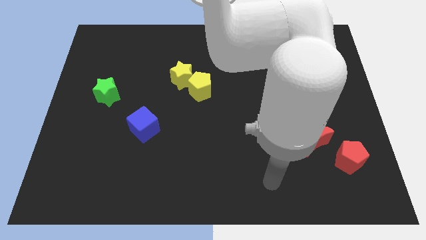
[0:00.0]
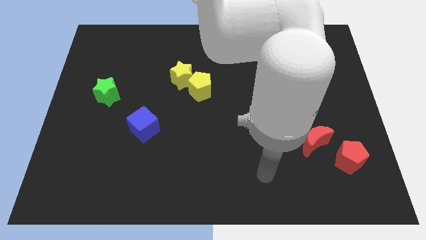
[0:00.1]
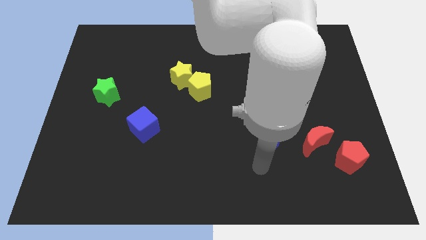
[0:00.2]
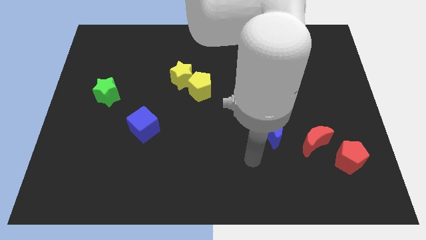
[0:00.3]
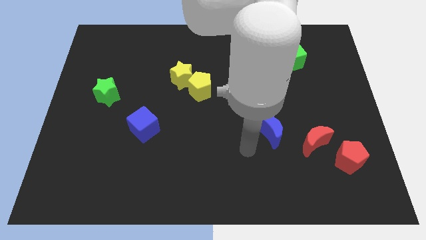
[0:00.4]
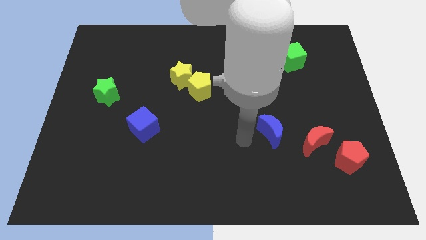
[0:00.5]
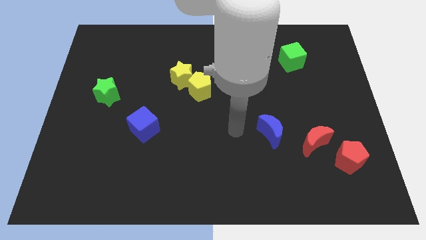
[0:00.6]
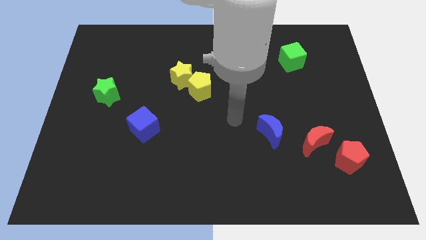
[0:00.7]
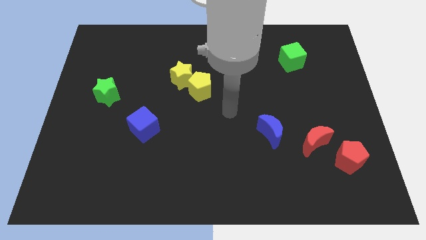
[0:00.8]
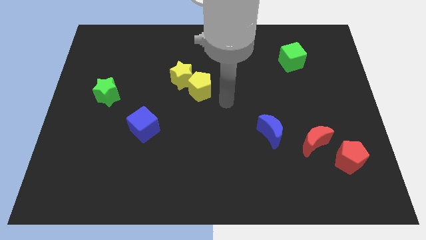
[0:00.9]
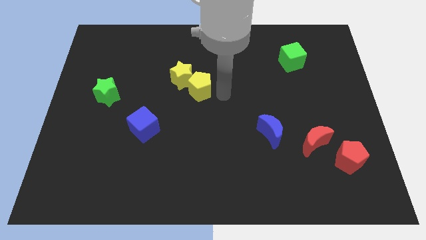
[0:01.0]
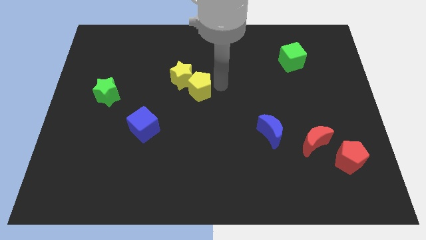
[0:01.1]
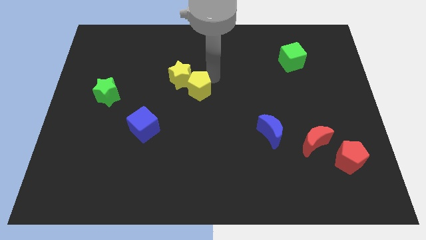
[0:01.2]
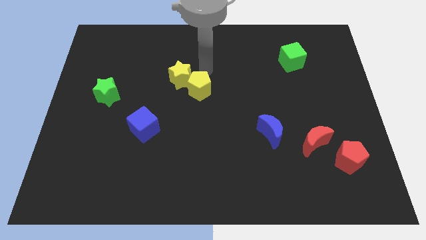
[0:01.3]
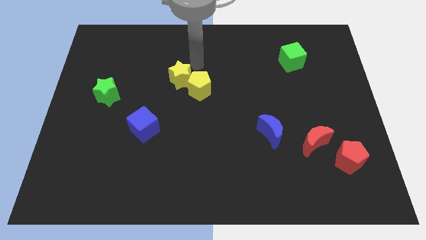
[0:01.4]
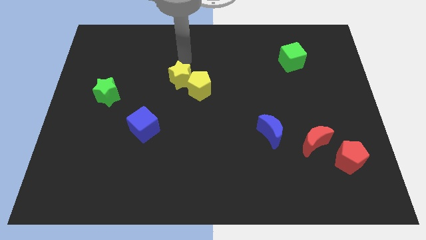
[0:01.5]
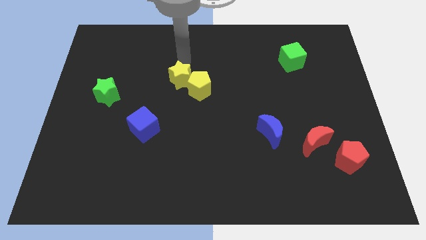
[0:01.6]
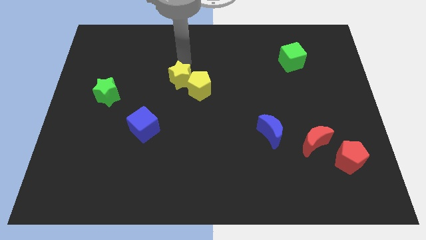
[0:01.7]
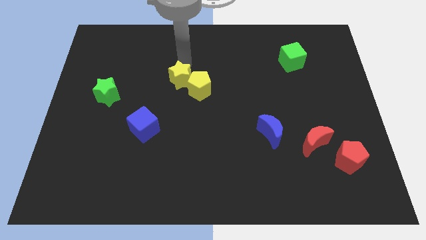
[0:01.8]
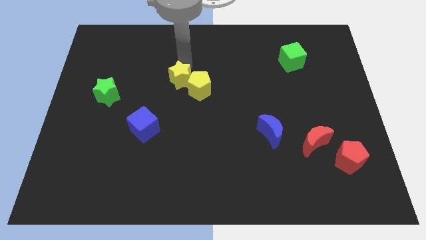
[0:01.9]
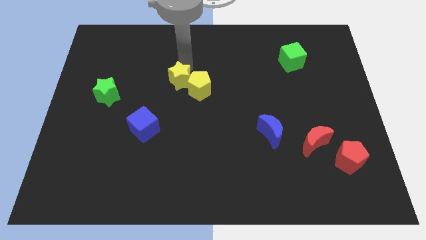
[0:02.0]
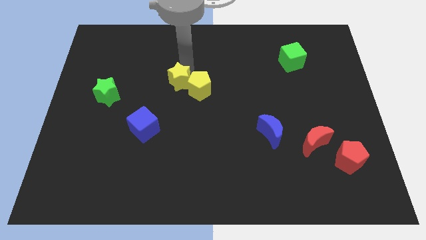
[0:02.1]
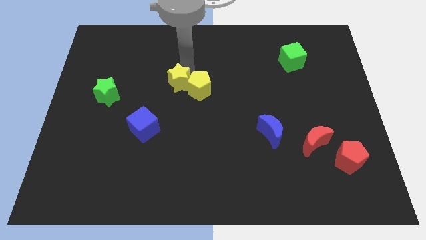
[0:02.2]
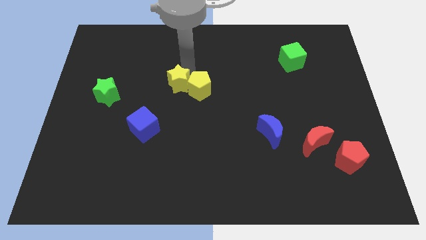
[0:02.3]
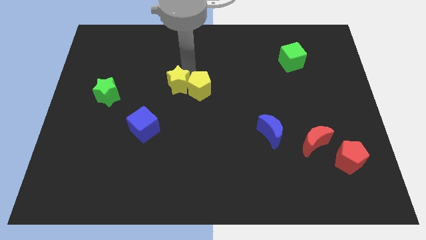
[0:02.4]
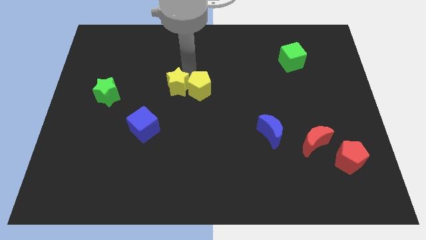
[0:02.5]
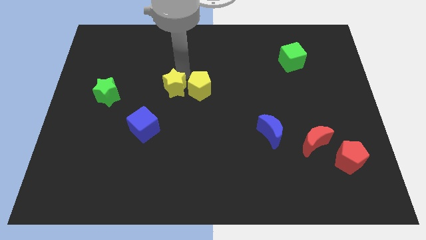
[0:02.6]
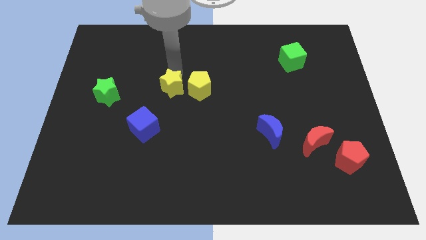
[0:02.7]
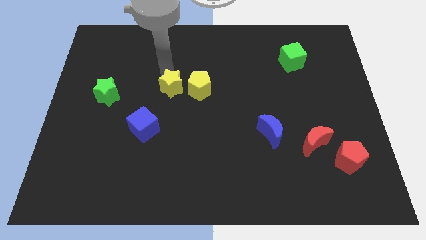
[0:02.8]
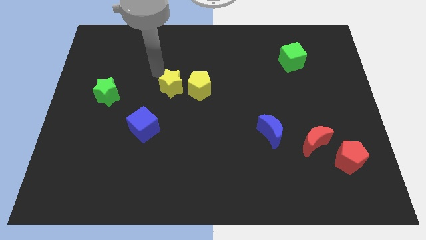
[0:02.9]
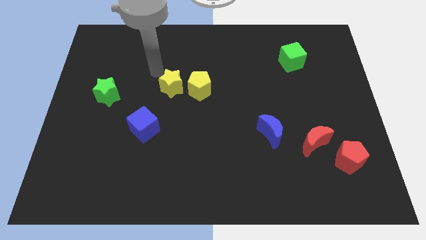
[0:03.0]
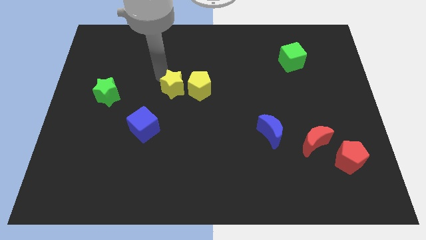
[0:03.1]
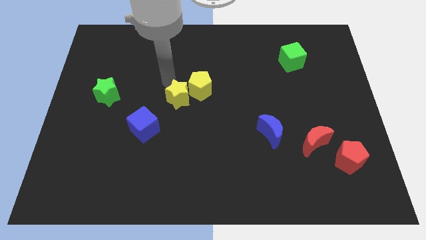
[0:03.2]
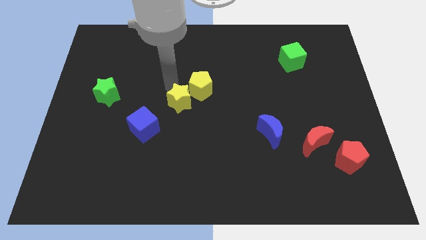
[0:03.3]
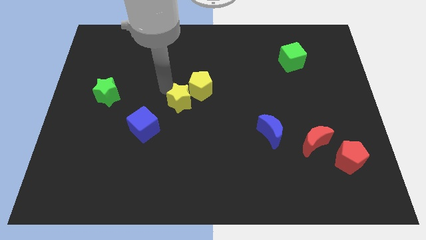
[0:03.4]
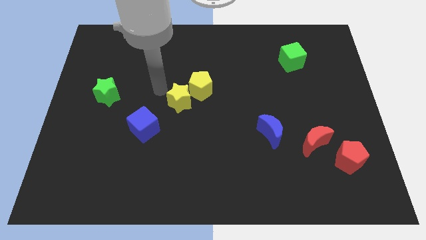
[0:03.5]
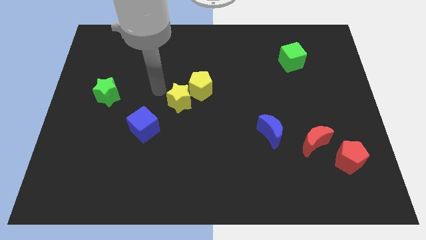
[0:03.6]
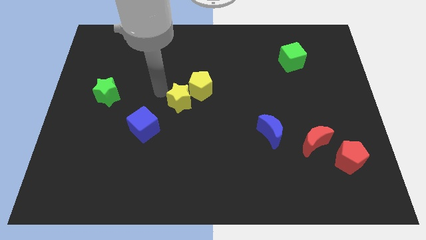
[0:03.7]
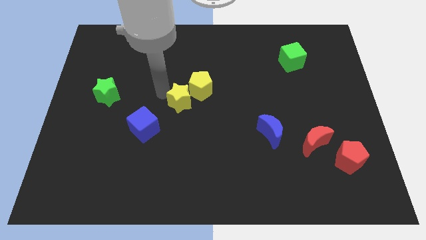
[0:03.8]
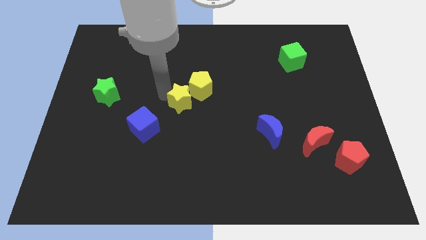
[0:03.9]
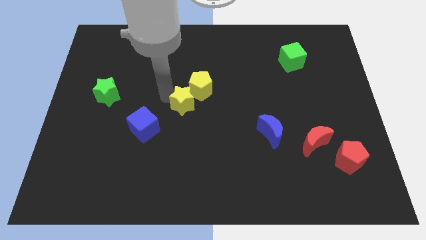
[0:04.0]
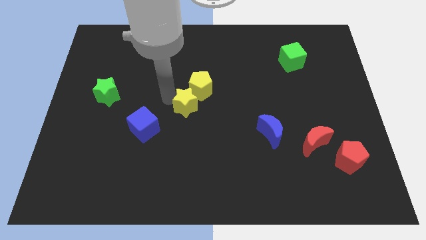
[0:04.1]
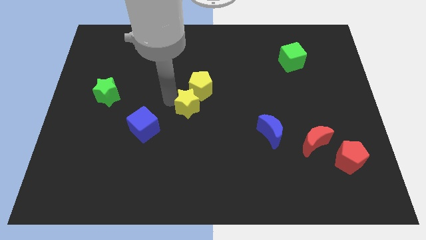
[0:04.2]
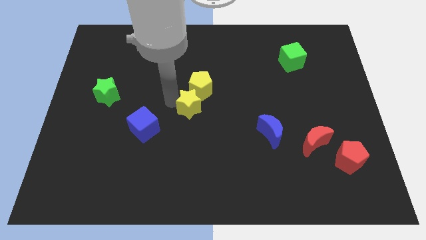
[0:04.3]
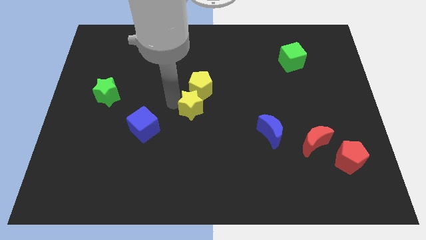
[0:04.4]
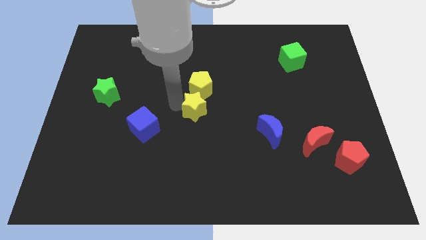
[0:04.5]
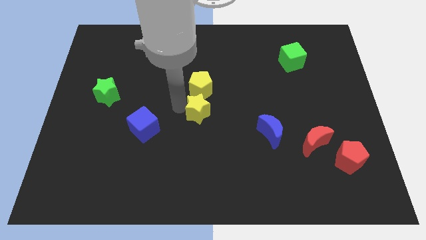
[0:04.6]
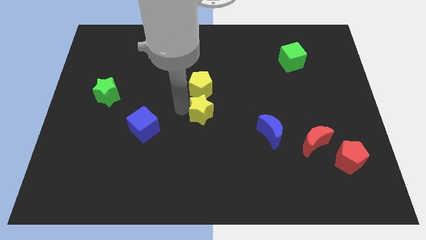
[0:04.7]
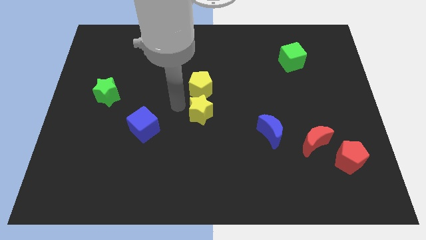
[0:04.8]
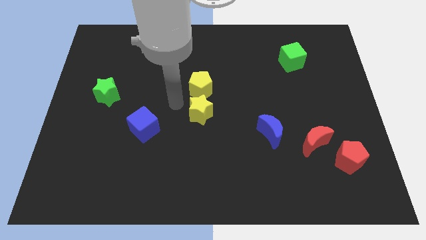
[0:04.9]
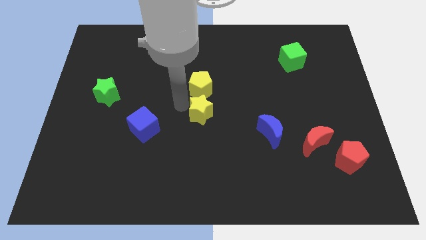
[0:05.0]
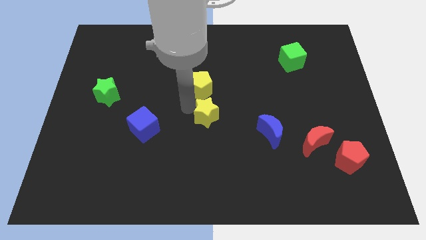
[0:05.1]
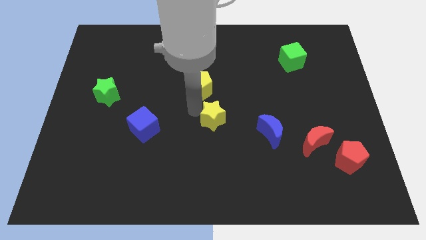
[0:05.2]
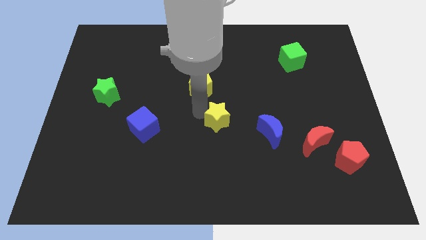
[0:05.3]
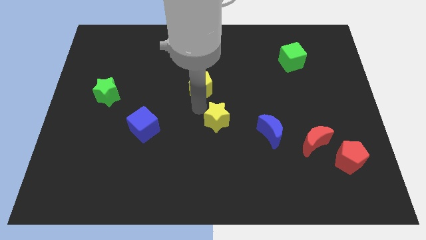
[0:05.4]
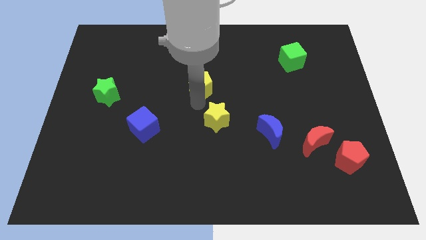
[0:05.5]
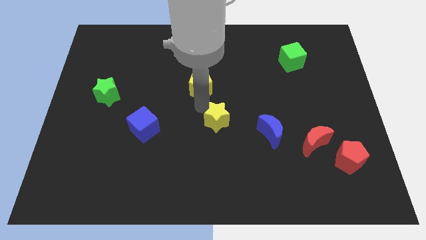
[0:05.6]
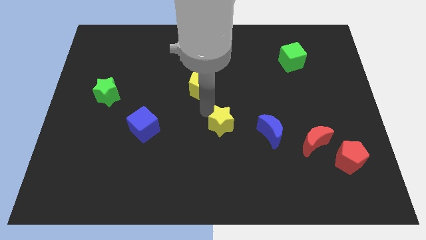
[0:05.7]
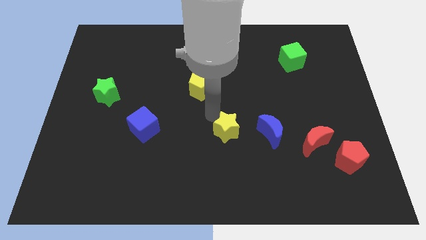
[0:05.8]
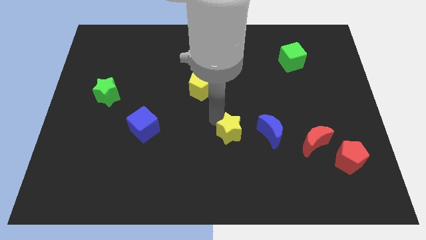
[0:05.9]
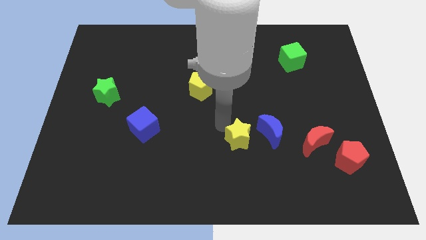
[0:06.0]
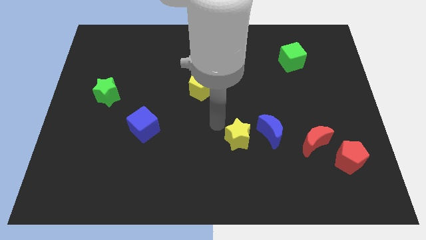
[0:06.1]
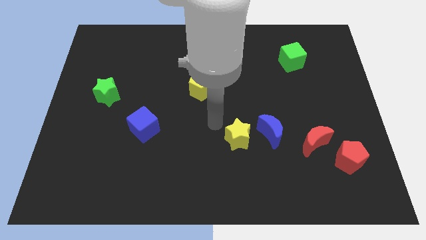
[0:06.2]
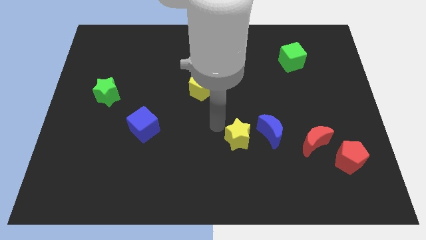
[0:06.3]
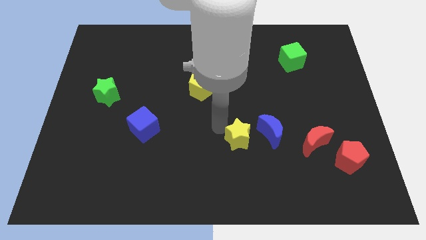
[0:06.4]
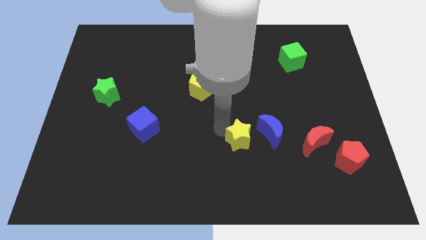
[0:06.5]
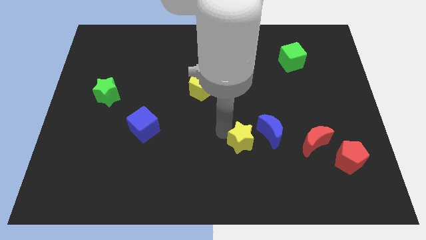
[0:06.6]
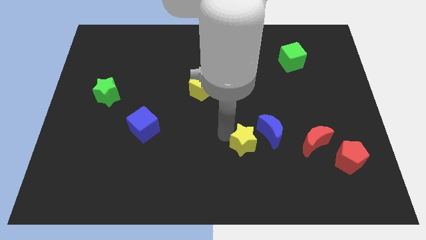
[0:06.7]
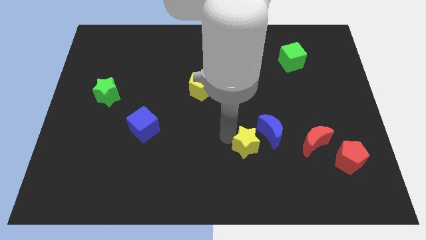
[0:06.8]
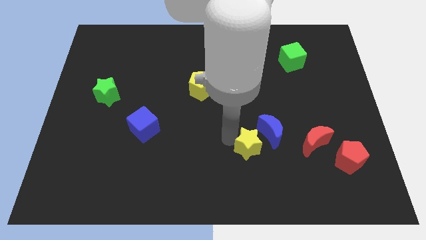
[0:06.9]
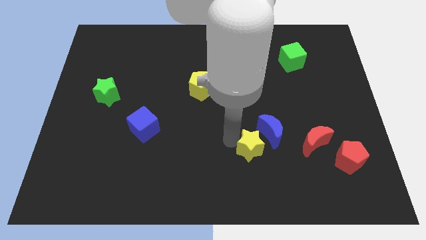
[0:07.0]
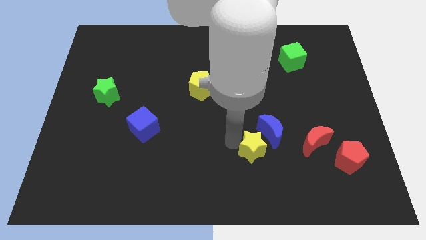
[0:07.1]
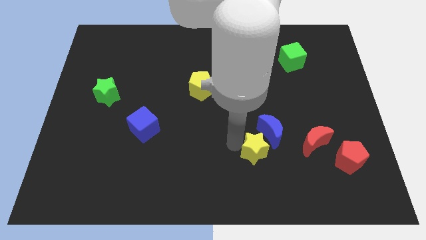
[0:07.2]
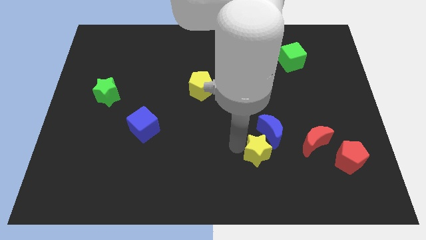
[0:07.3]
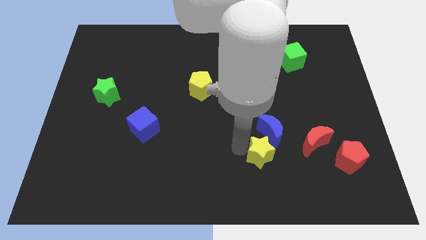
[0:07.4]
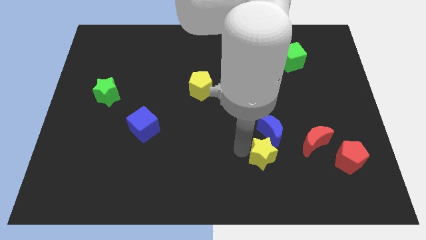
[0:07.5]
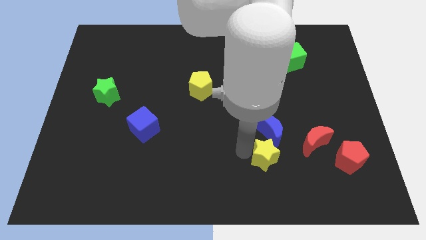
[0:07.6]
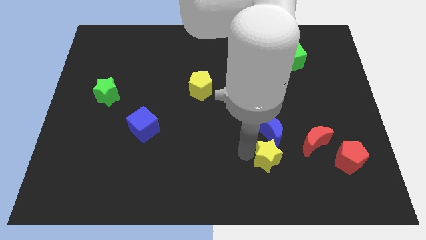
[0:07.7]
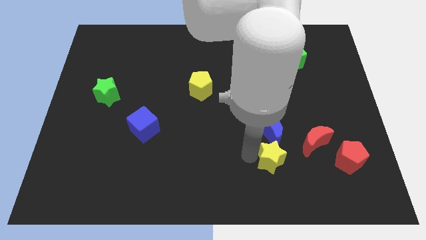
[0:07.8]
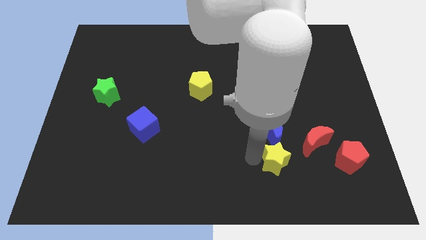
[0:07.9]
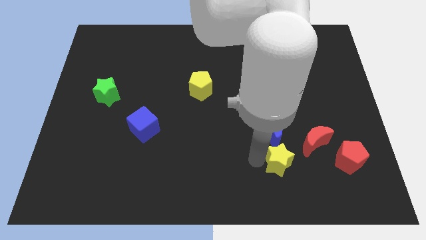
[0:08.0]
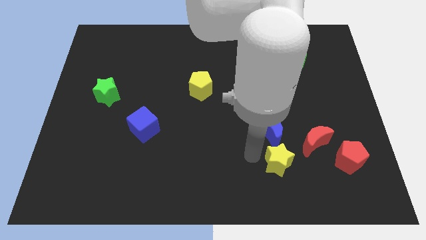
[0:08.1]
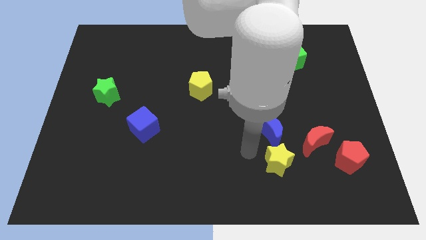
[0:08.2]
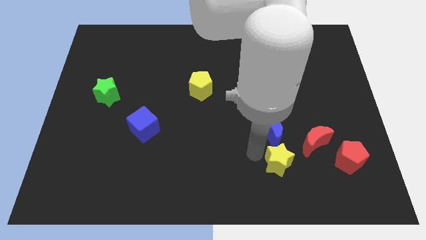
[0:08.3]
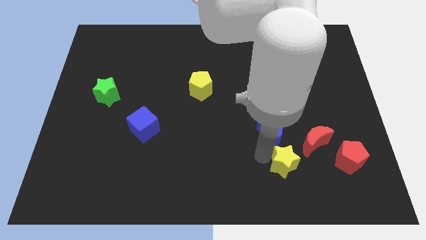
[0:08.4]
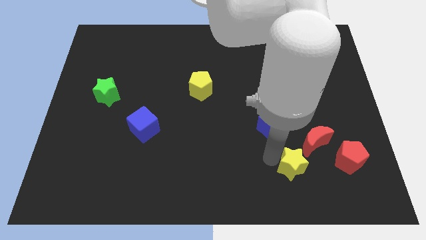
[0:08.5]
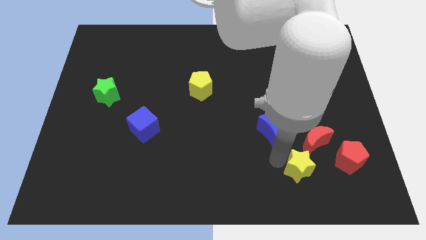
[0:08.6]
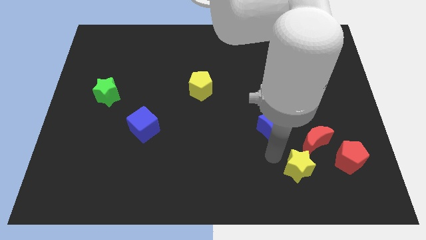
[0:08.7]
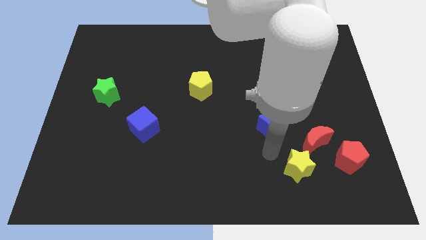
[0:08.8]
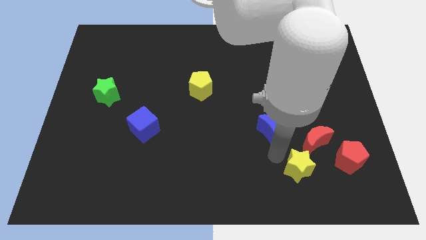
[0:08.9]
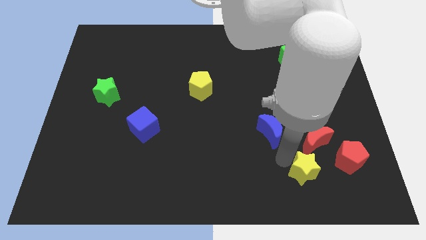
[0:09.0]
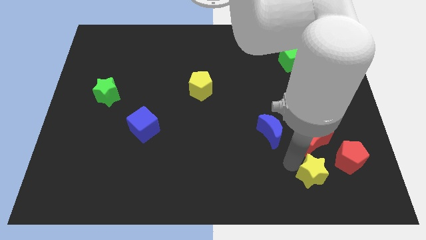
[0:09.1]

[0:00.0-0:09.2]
put the yellow star to the bottom left of the red pentagon
